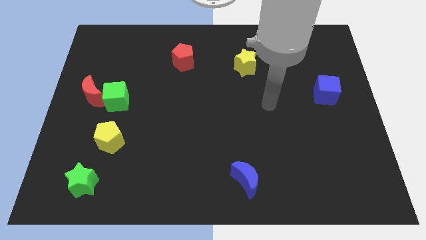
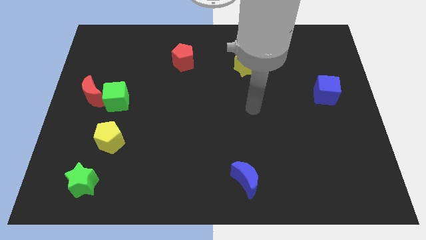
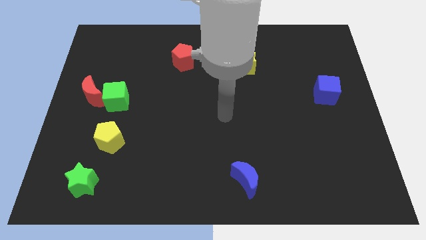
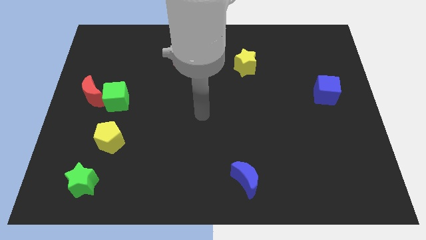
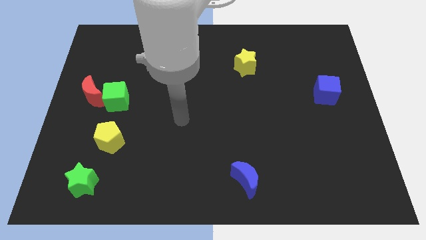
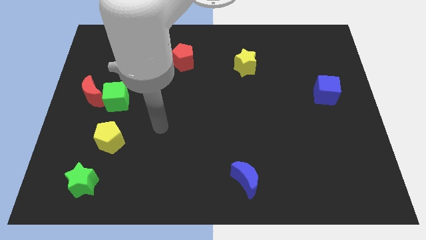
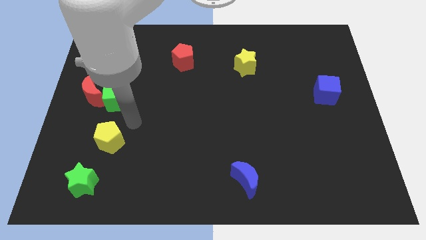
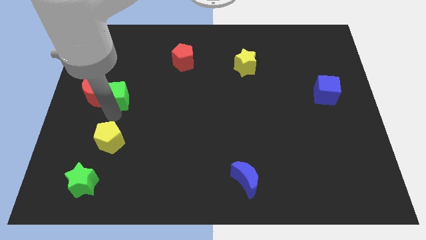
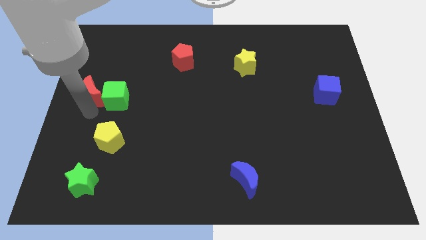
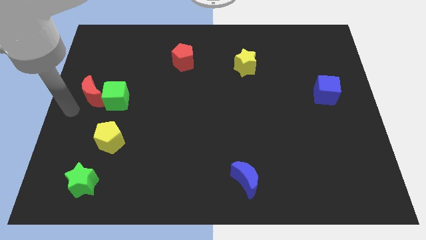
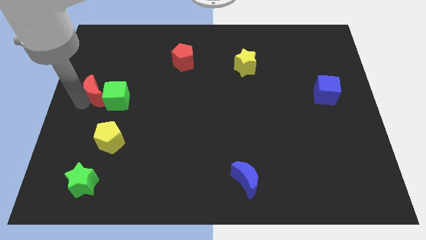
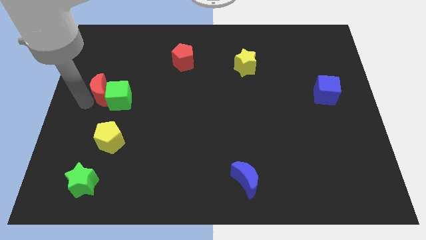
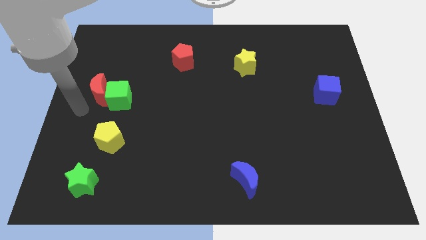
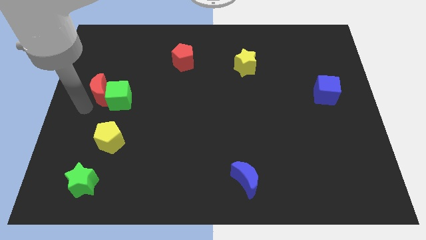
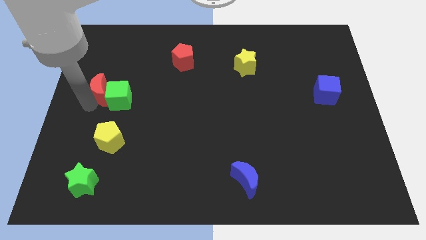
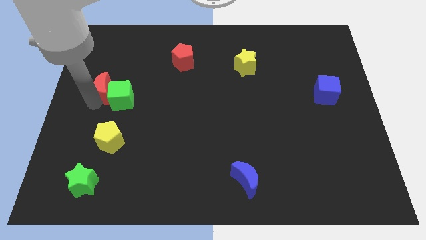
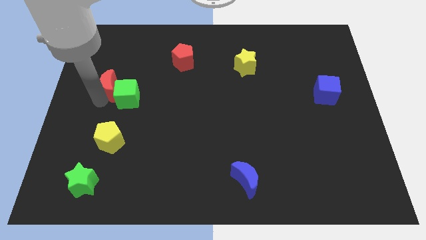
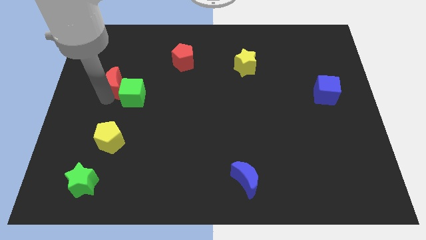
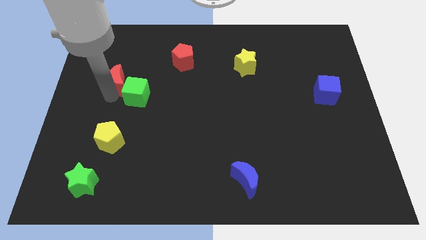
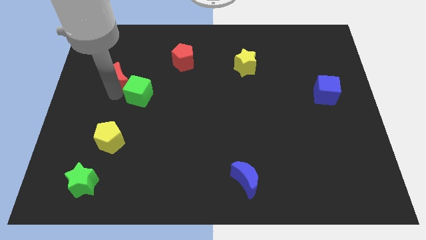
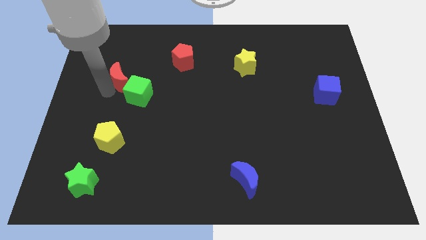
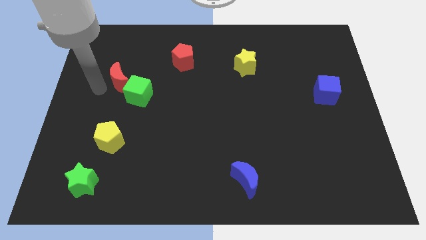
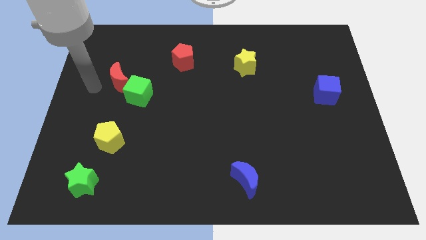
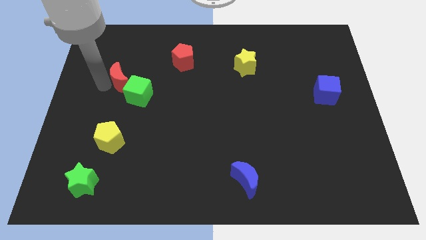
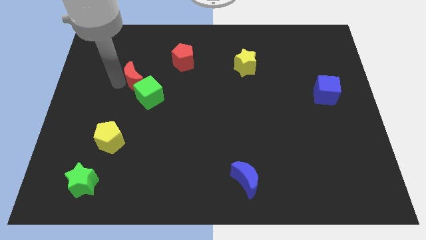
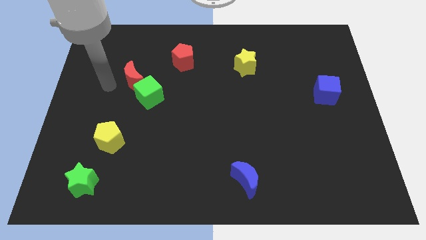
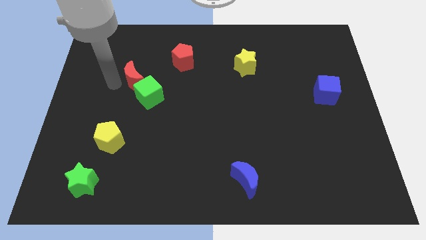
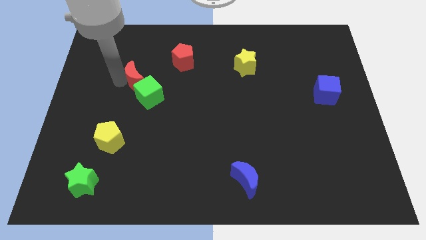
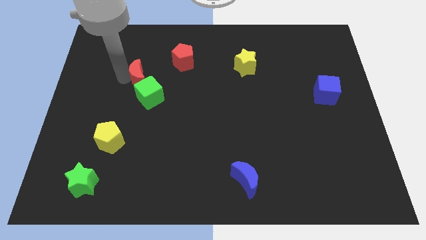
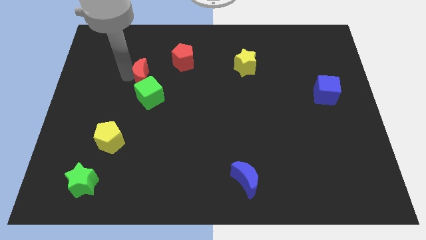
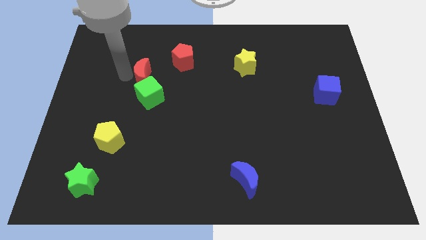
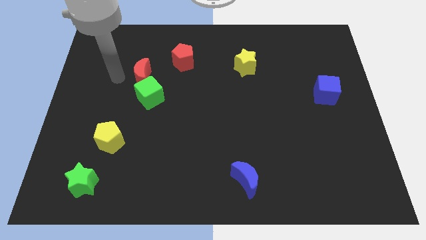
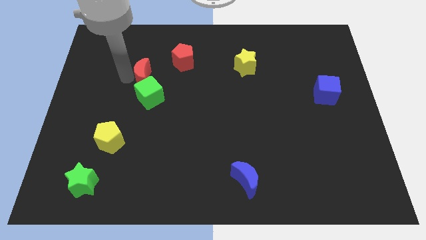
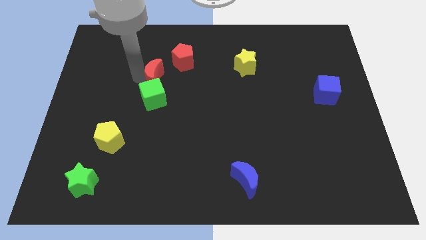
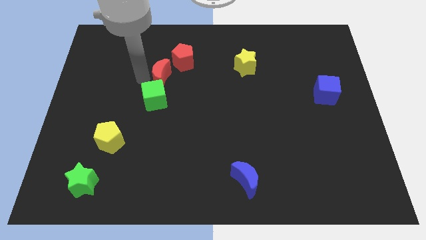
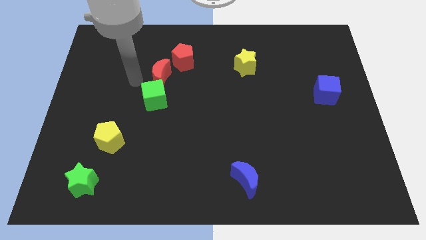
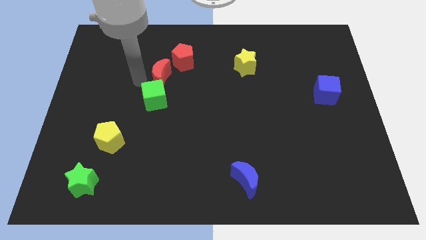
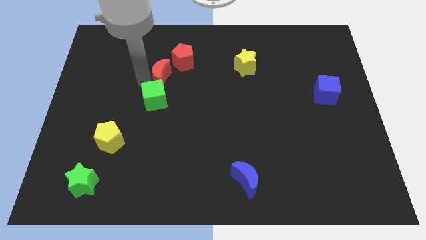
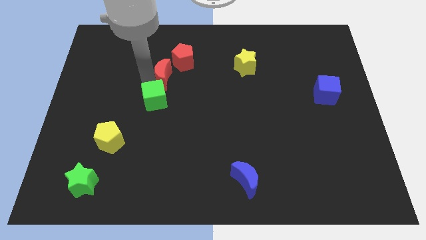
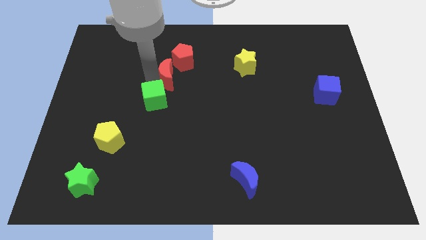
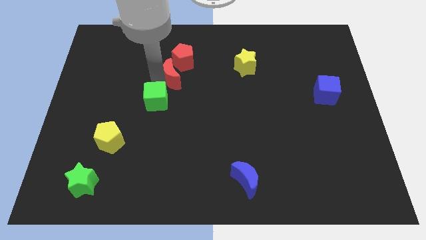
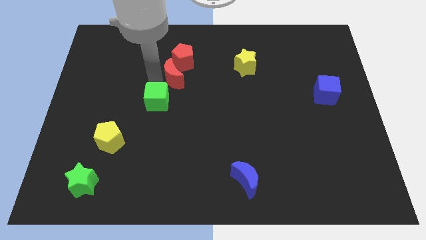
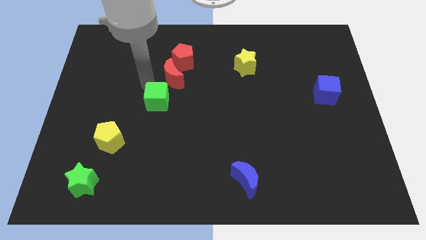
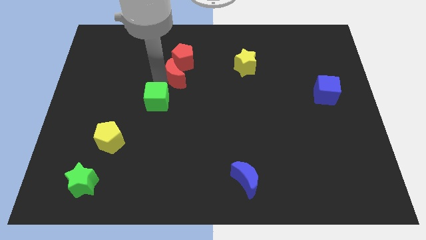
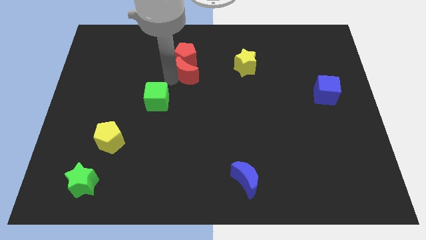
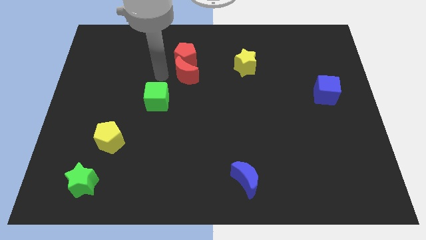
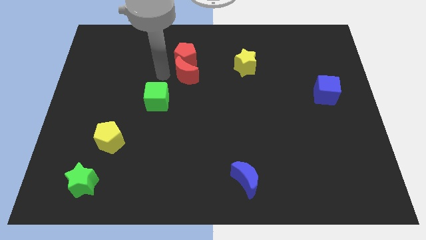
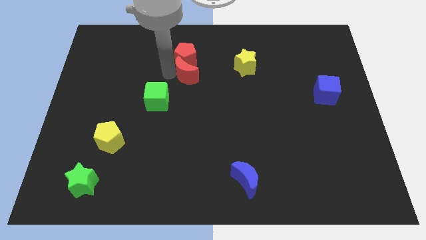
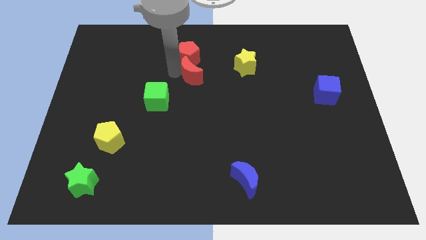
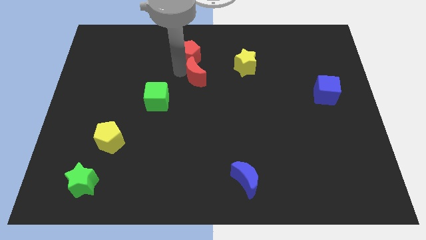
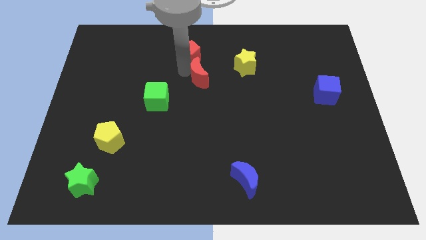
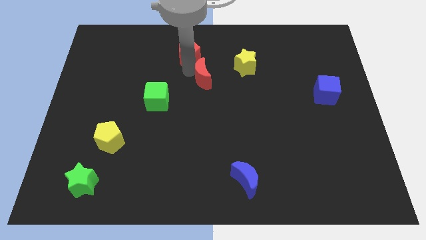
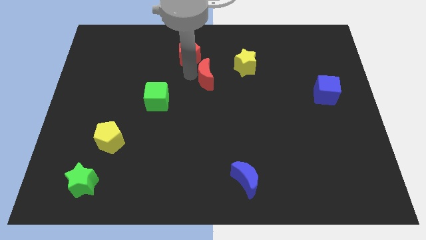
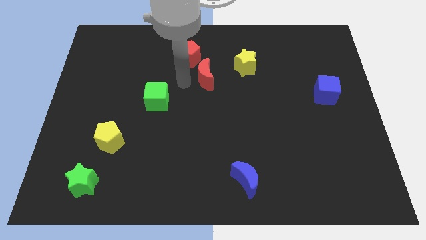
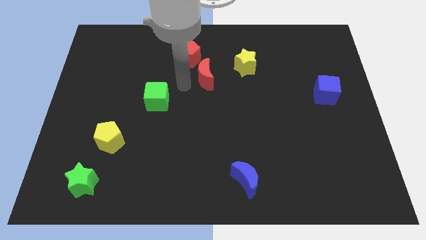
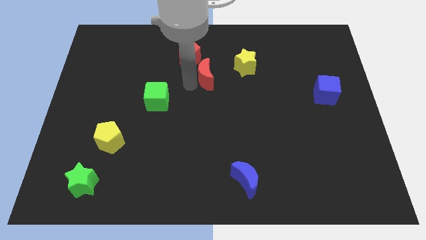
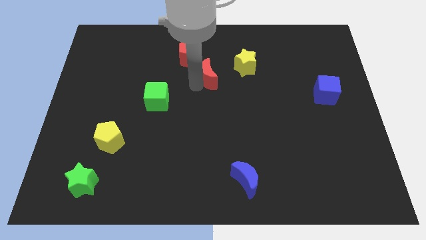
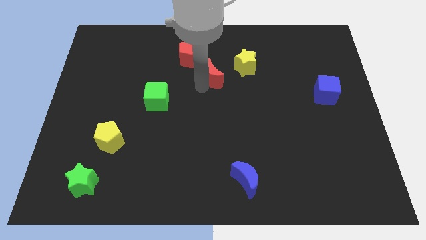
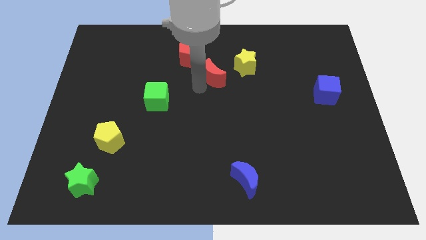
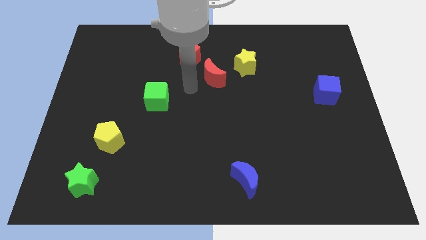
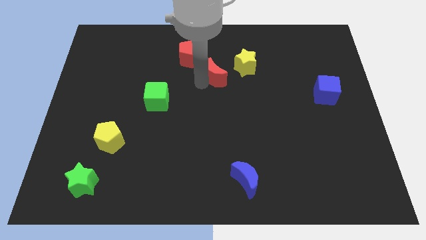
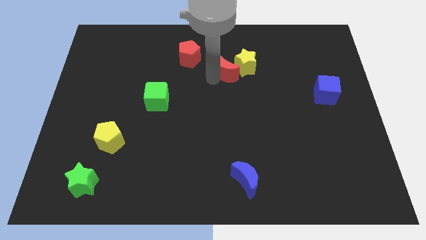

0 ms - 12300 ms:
push the red moon towards the yellow star

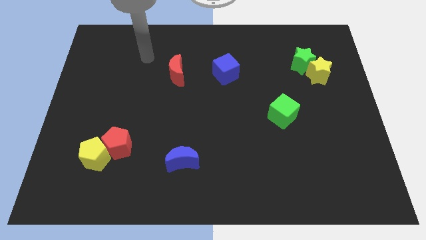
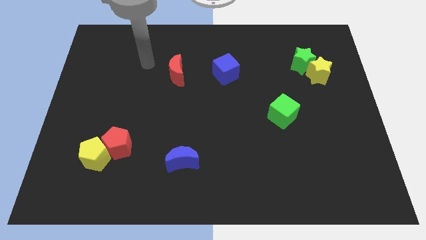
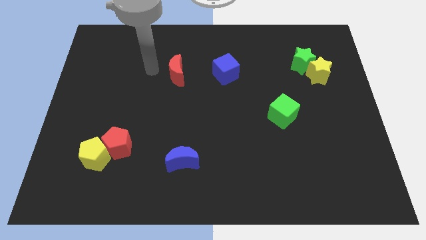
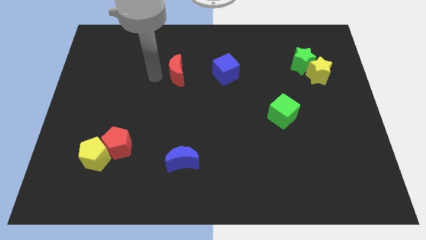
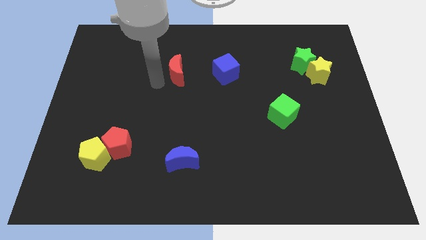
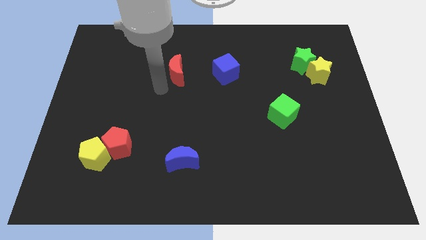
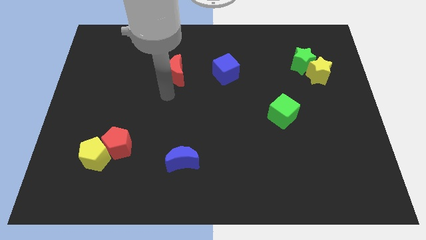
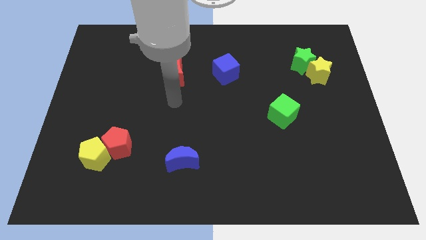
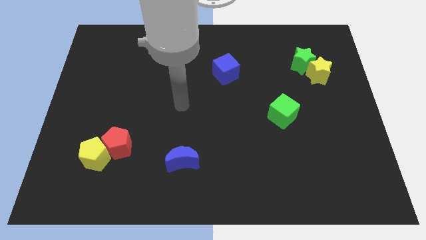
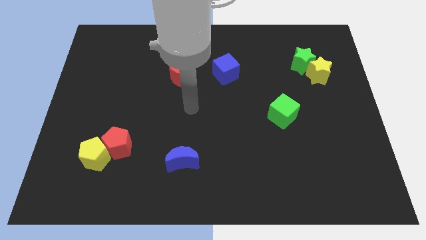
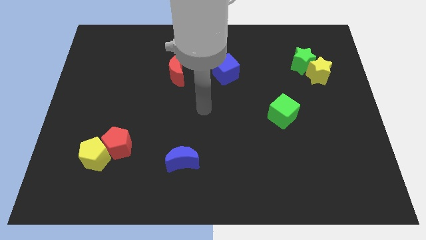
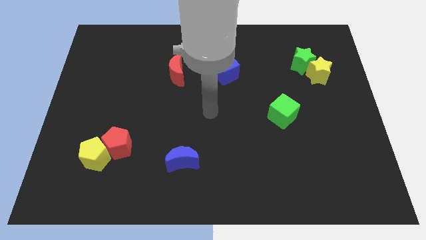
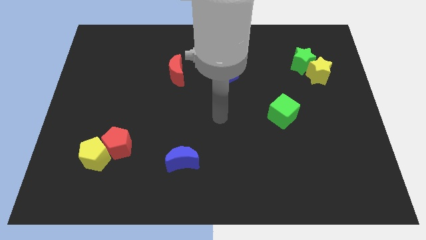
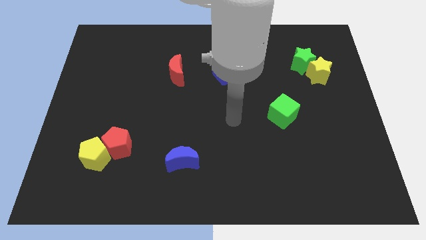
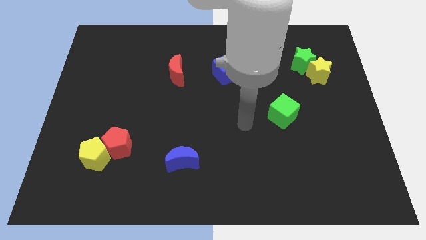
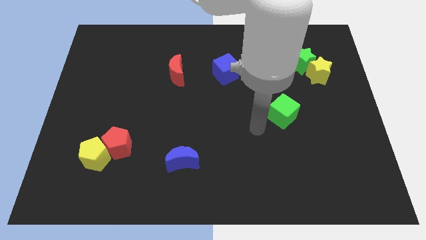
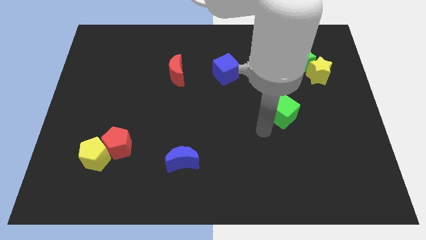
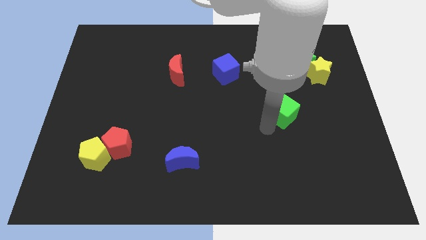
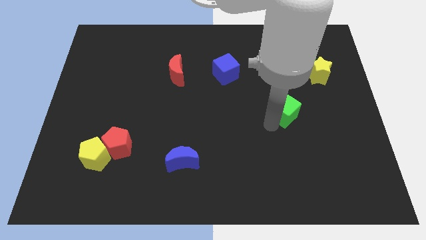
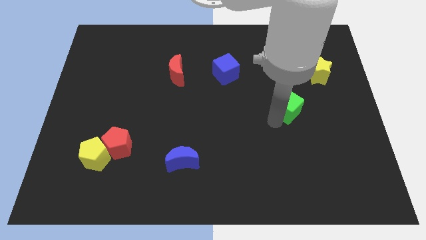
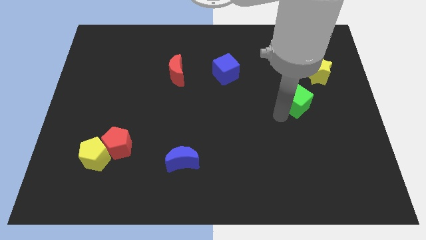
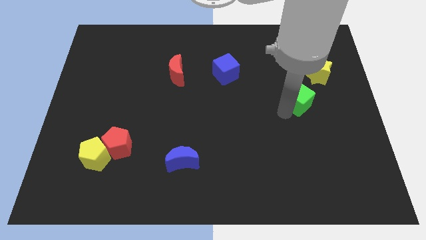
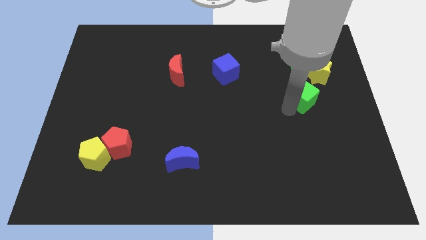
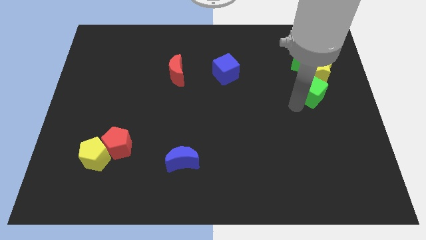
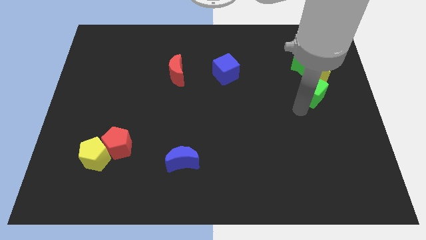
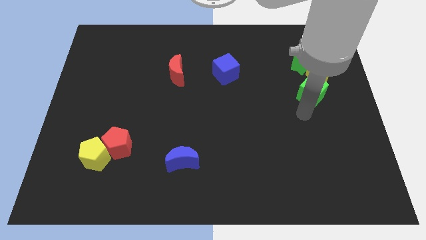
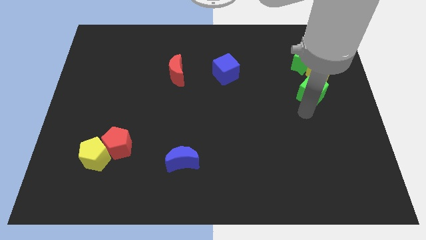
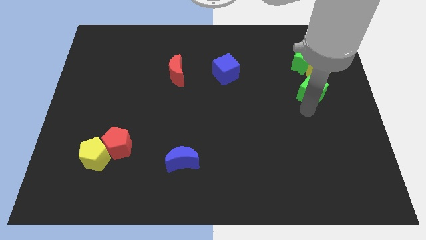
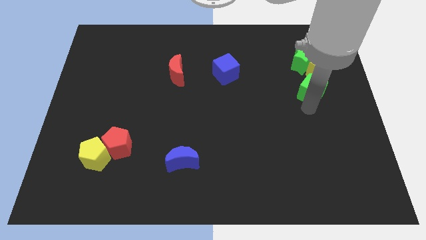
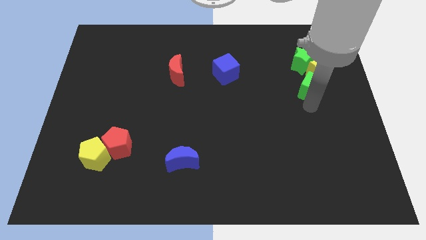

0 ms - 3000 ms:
move the green cube close to the yellow star
